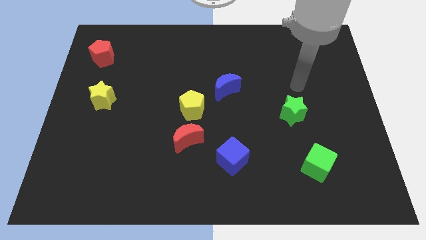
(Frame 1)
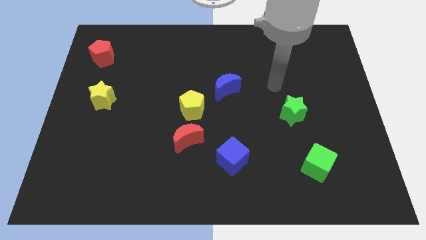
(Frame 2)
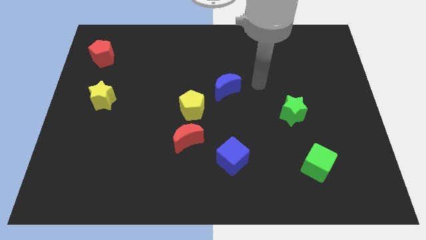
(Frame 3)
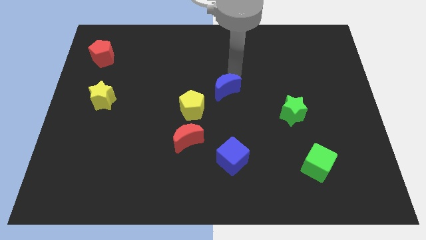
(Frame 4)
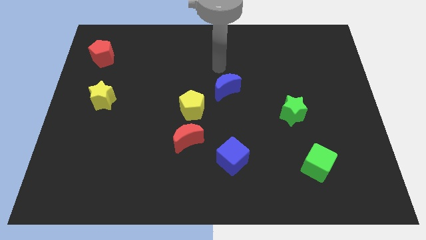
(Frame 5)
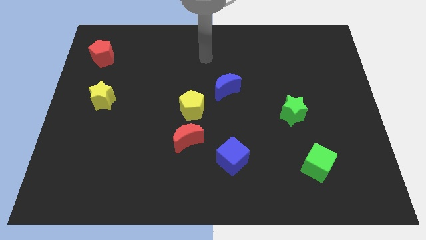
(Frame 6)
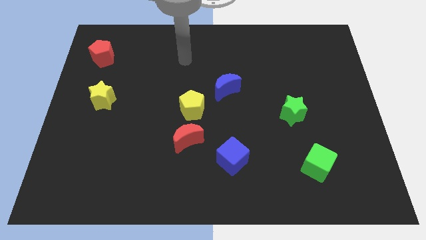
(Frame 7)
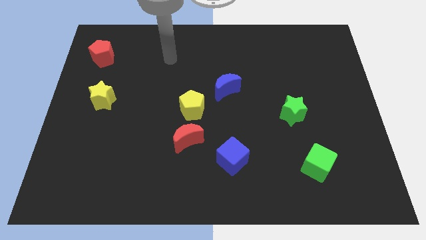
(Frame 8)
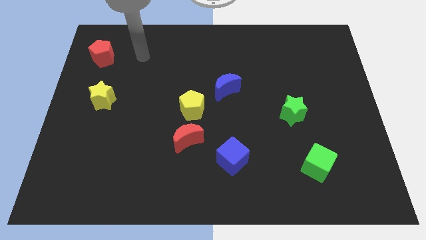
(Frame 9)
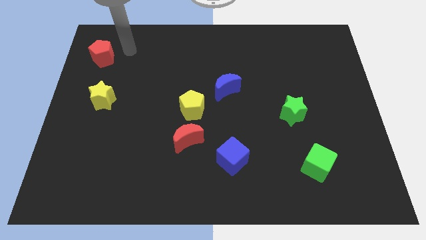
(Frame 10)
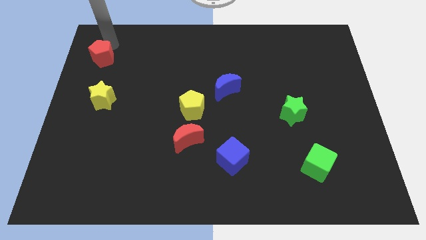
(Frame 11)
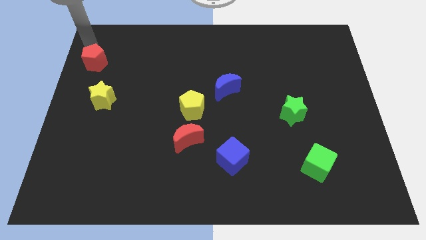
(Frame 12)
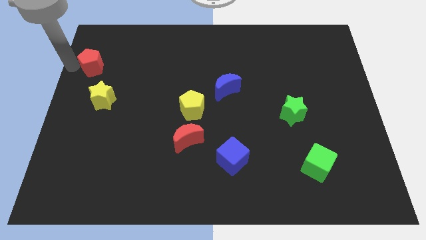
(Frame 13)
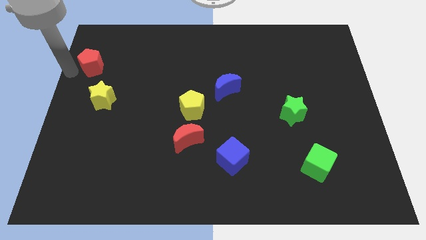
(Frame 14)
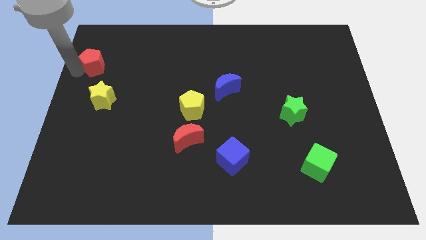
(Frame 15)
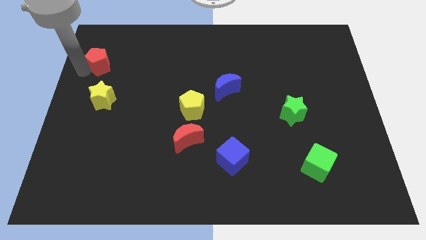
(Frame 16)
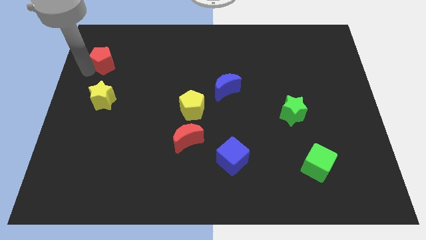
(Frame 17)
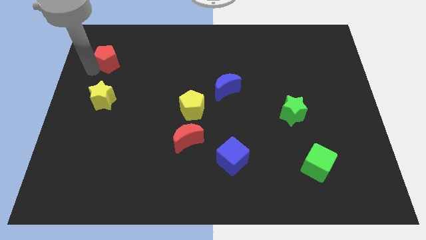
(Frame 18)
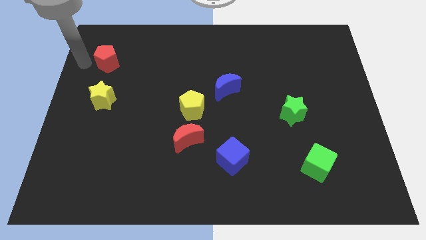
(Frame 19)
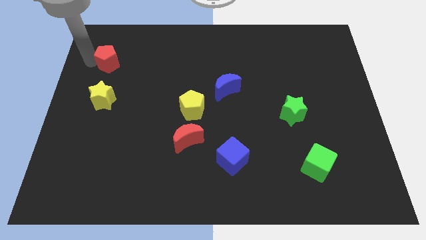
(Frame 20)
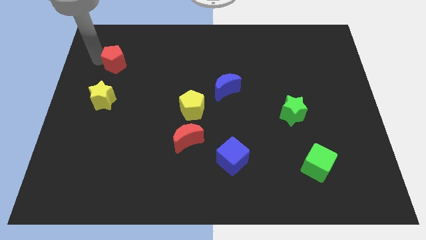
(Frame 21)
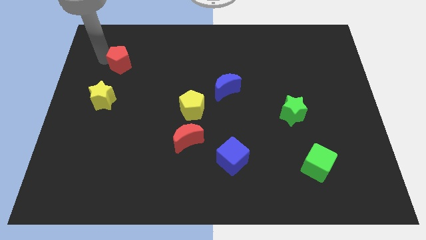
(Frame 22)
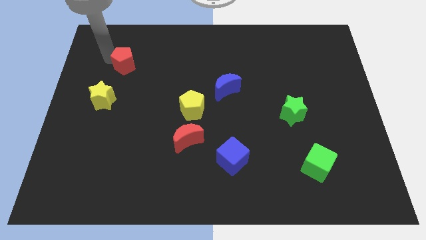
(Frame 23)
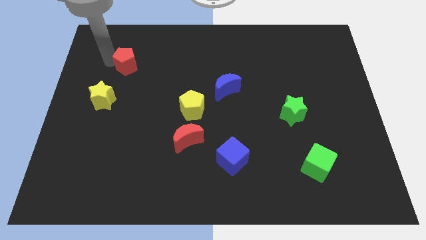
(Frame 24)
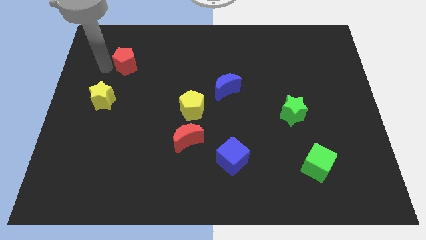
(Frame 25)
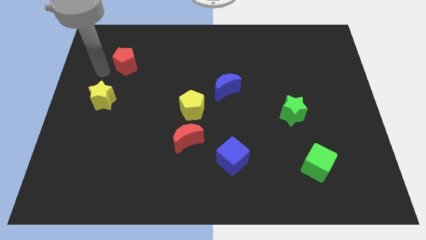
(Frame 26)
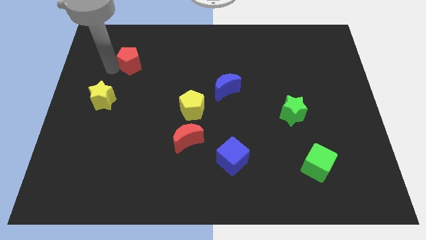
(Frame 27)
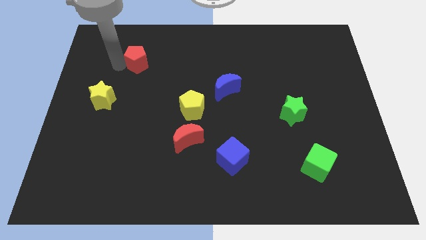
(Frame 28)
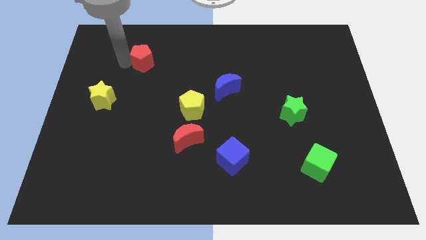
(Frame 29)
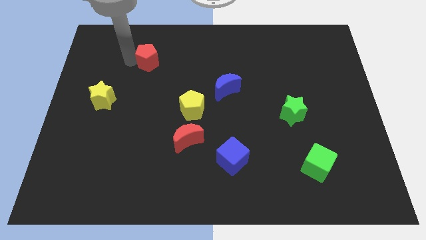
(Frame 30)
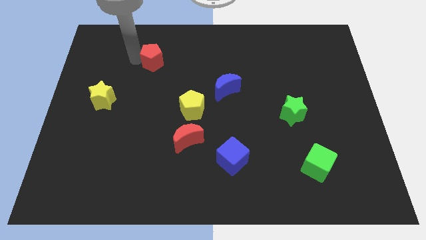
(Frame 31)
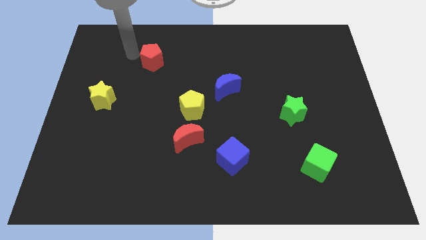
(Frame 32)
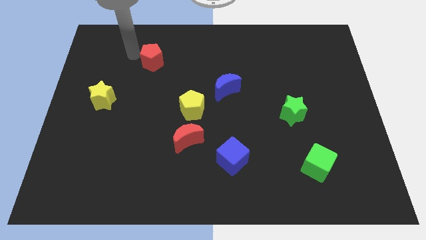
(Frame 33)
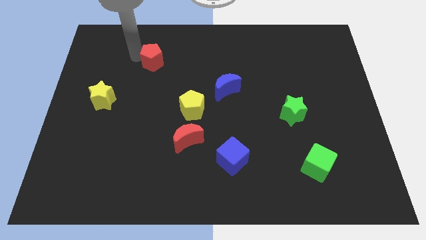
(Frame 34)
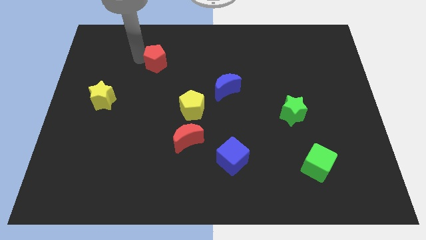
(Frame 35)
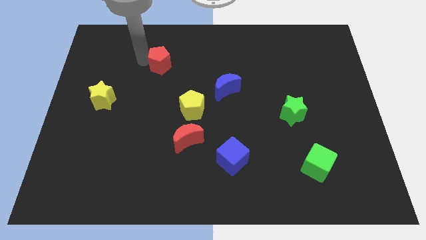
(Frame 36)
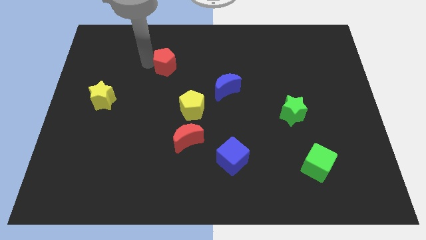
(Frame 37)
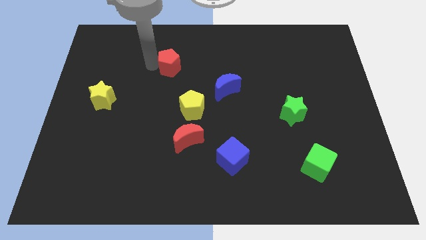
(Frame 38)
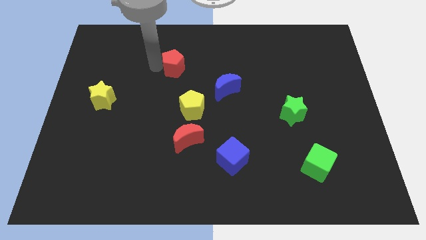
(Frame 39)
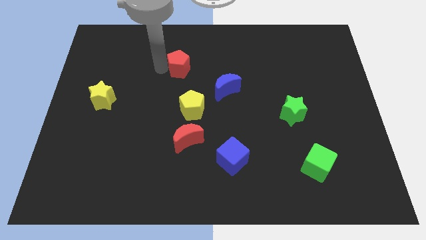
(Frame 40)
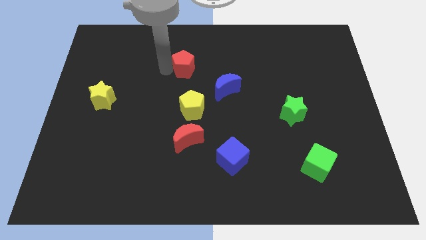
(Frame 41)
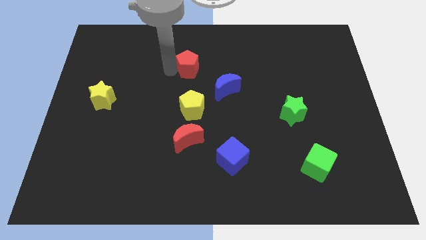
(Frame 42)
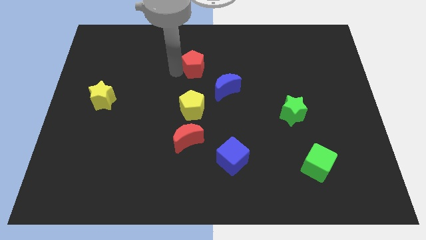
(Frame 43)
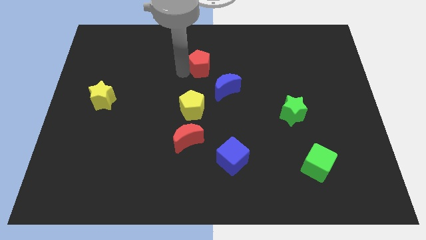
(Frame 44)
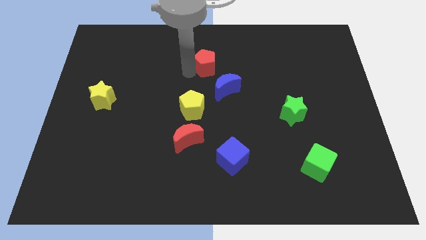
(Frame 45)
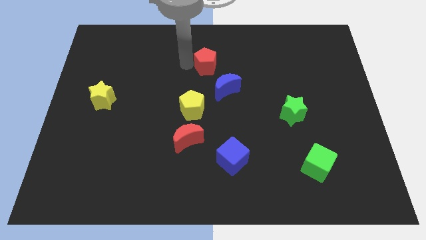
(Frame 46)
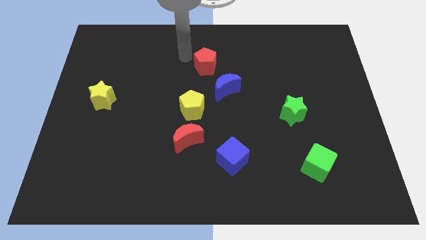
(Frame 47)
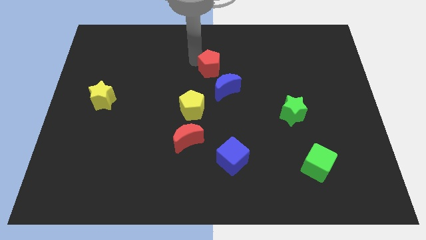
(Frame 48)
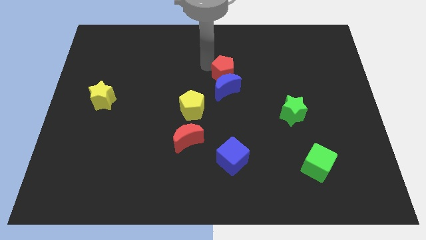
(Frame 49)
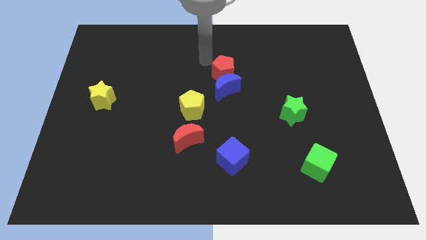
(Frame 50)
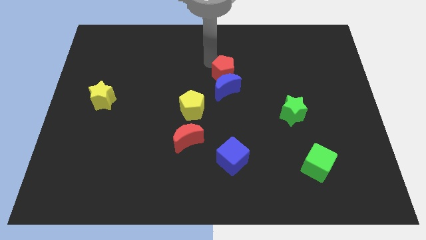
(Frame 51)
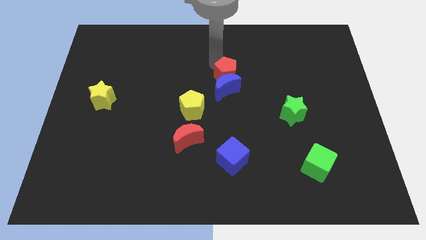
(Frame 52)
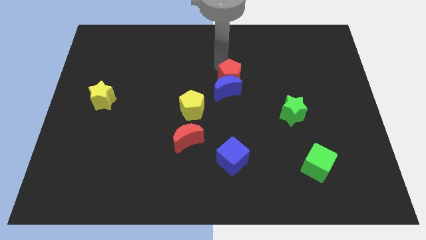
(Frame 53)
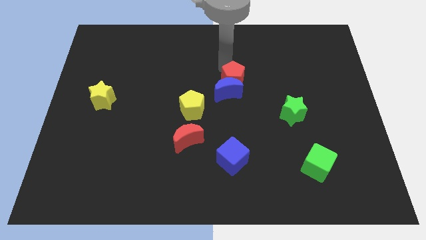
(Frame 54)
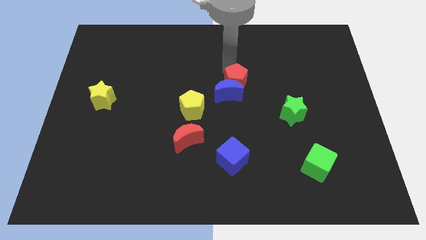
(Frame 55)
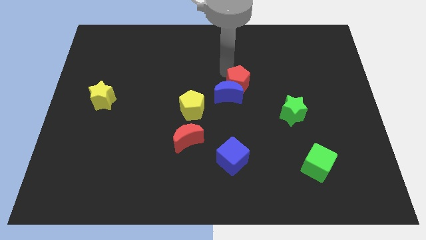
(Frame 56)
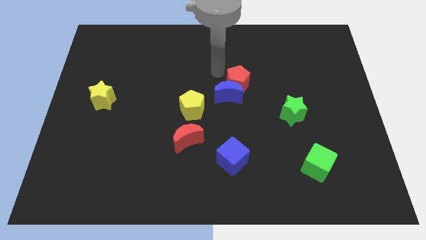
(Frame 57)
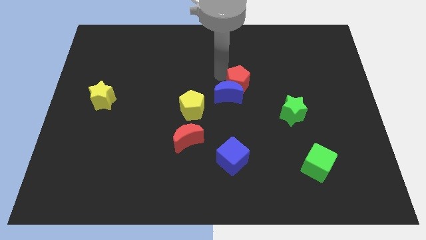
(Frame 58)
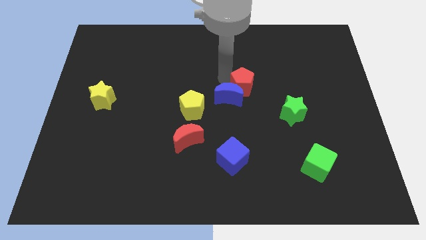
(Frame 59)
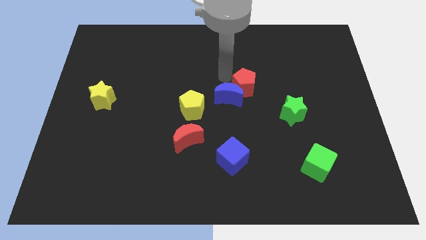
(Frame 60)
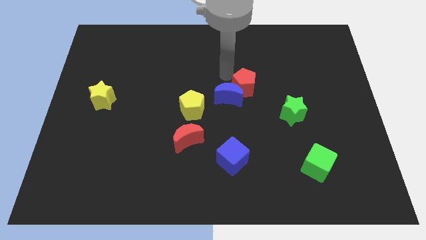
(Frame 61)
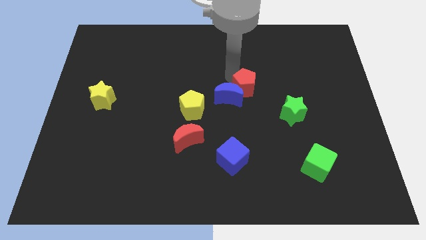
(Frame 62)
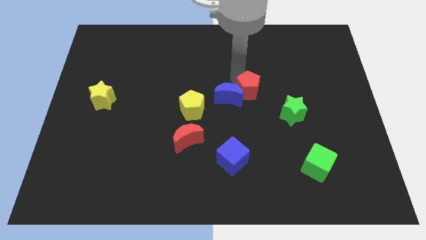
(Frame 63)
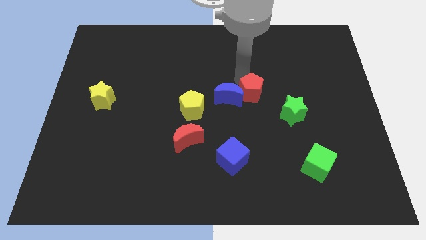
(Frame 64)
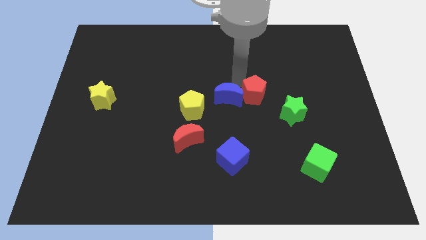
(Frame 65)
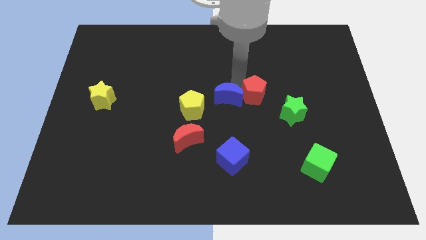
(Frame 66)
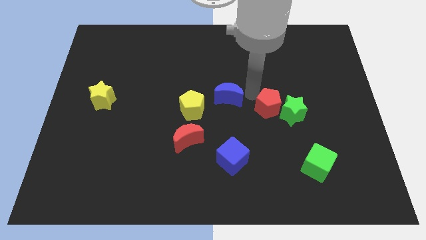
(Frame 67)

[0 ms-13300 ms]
put the red pentagon to the green star

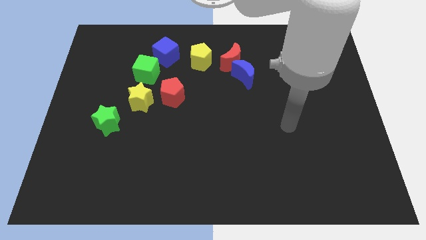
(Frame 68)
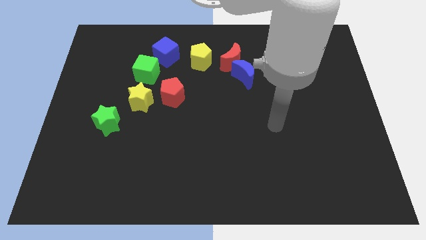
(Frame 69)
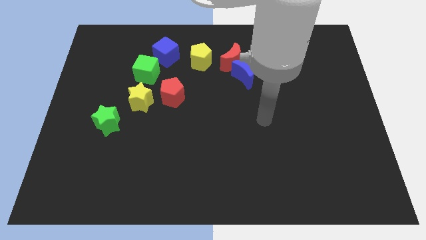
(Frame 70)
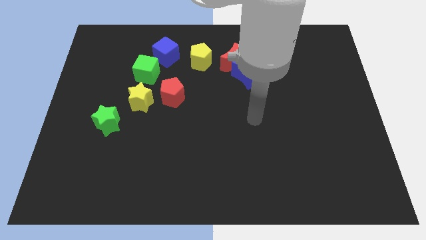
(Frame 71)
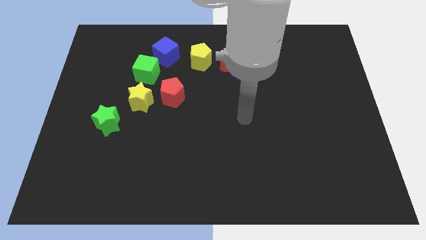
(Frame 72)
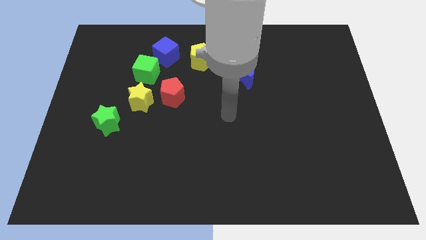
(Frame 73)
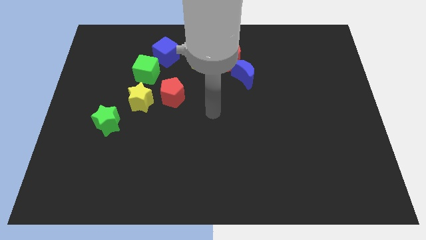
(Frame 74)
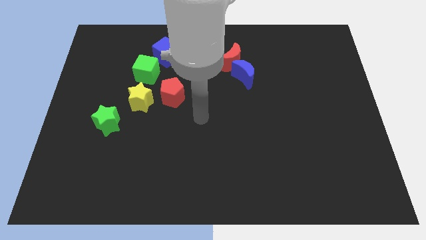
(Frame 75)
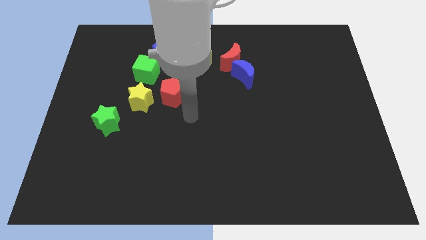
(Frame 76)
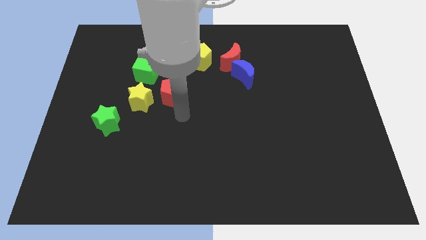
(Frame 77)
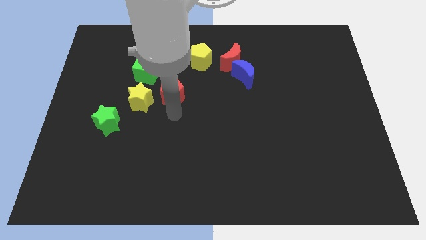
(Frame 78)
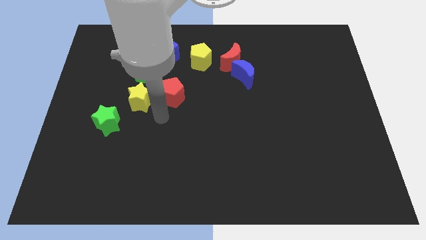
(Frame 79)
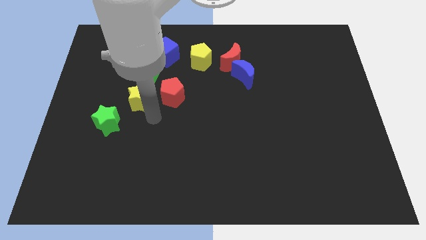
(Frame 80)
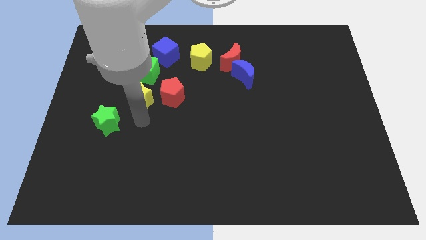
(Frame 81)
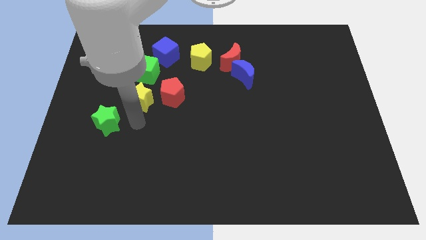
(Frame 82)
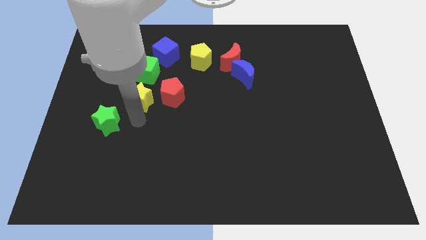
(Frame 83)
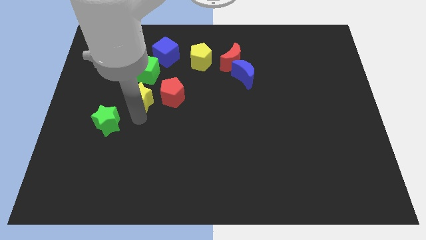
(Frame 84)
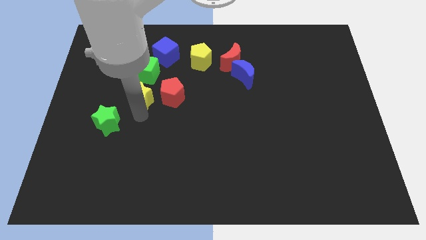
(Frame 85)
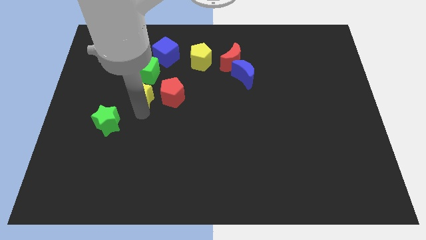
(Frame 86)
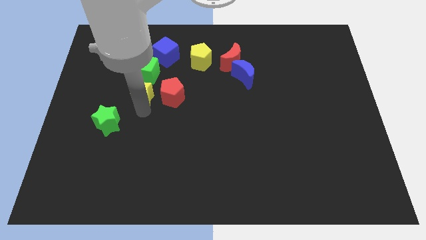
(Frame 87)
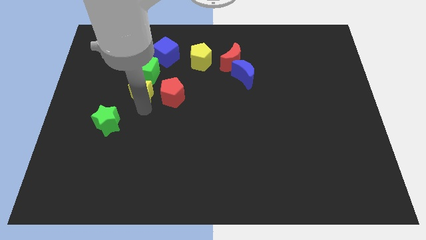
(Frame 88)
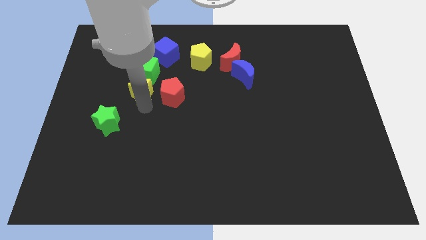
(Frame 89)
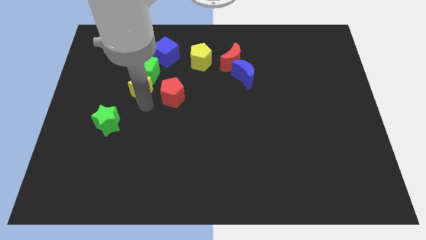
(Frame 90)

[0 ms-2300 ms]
slide the yellow star towards the green cube
